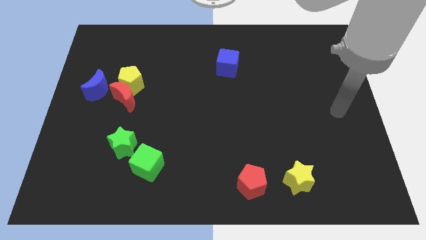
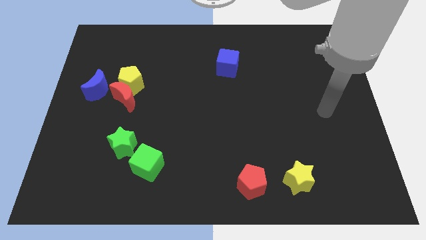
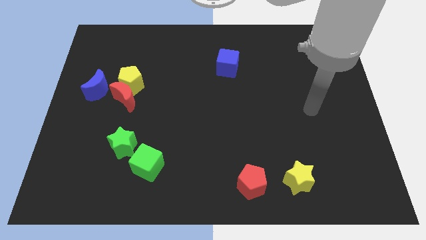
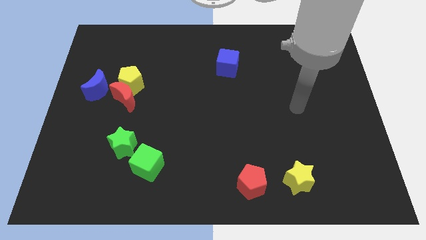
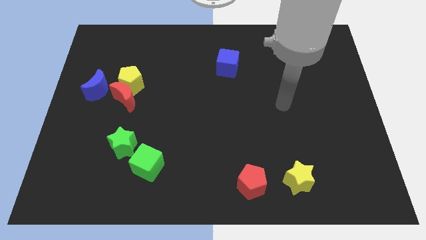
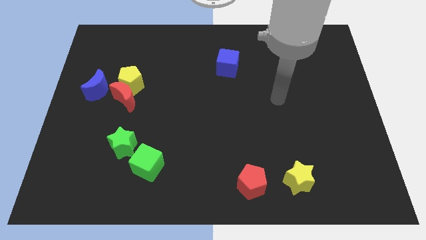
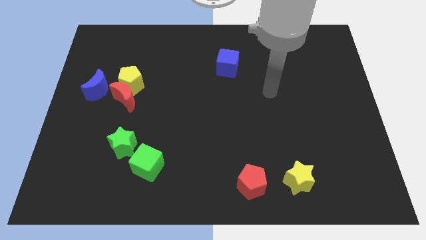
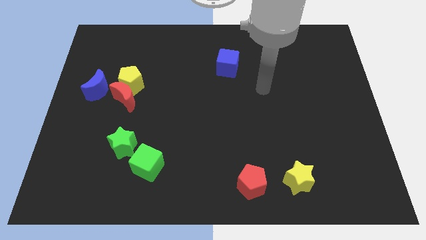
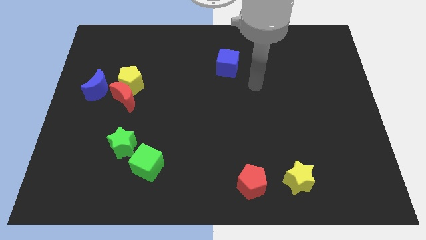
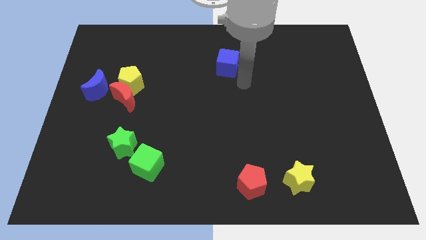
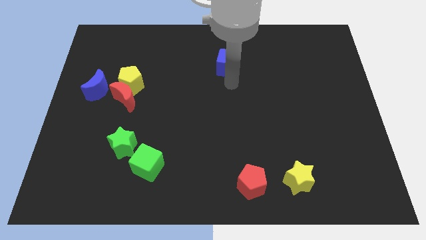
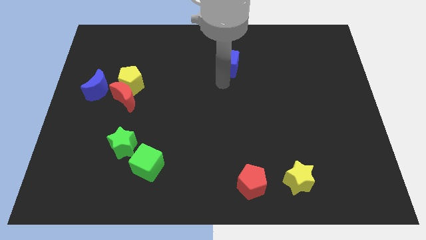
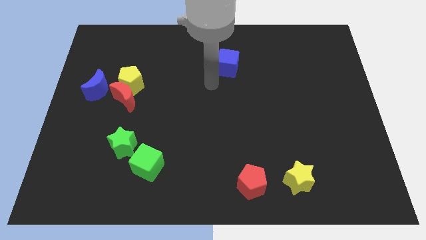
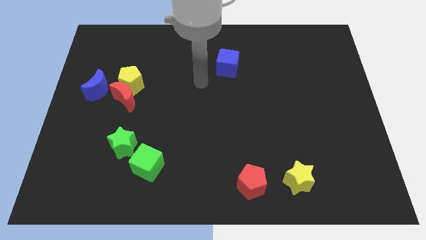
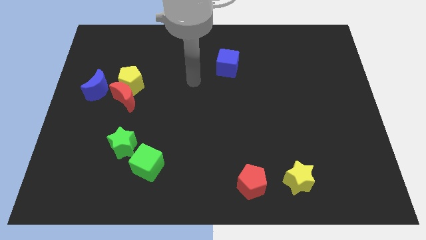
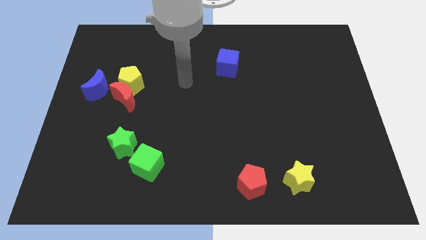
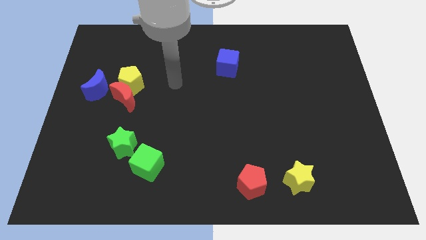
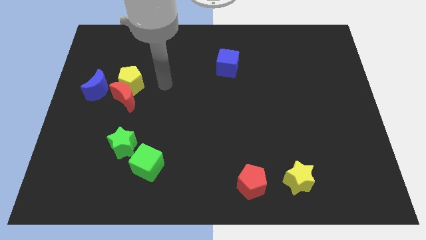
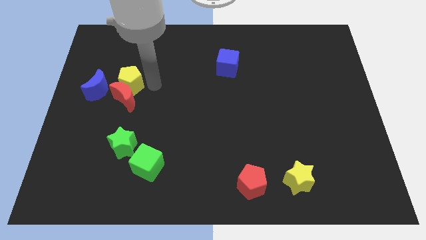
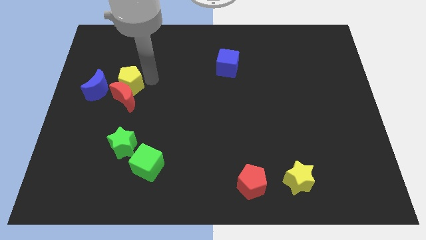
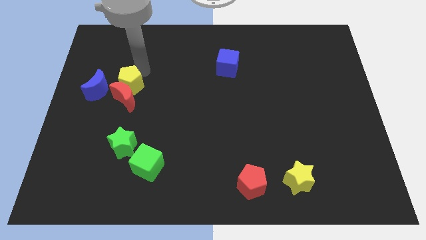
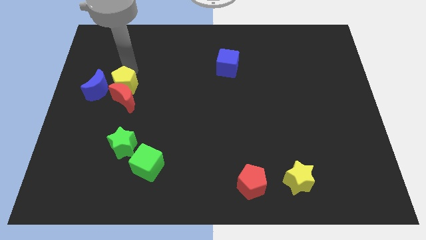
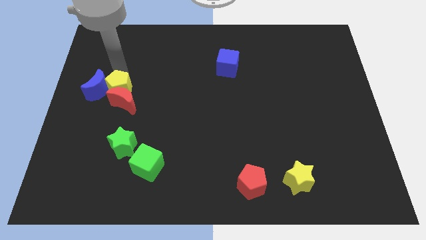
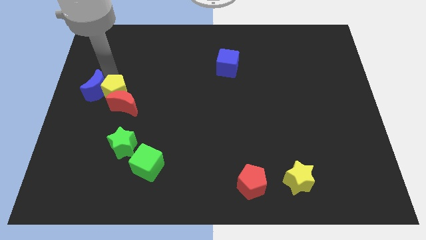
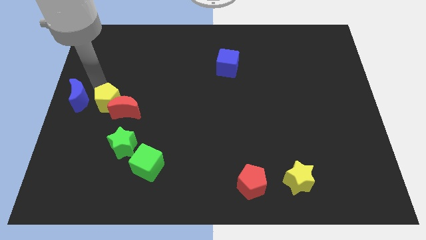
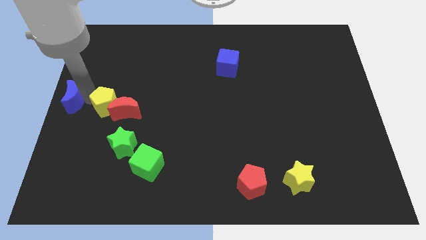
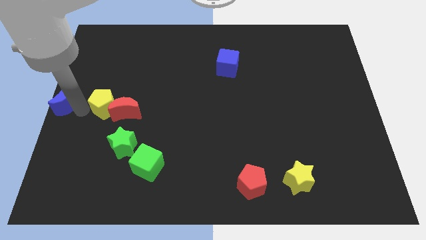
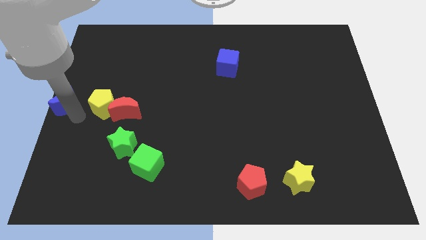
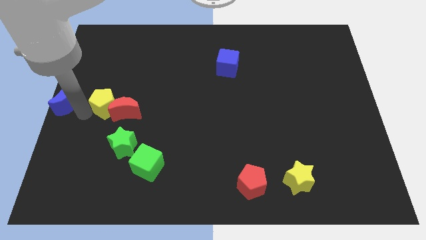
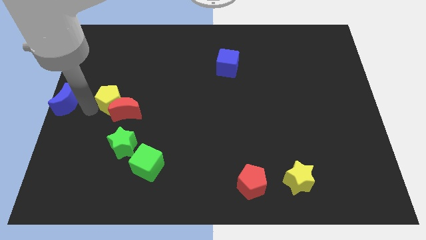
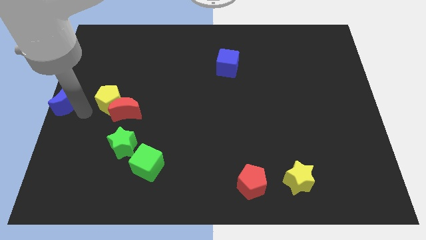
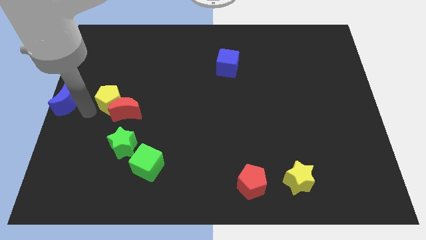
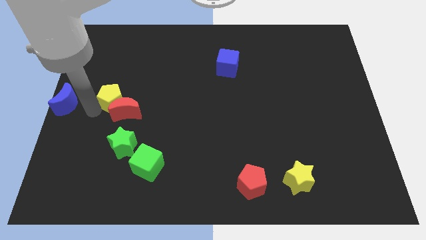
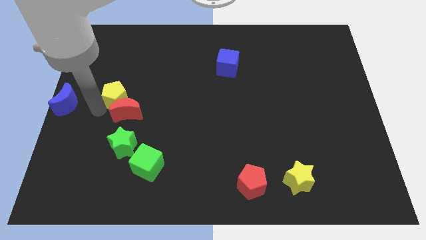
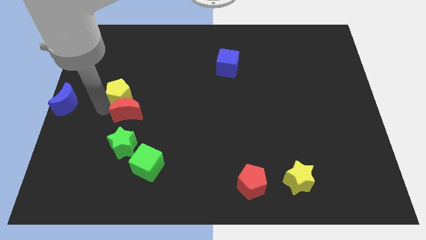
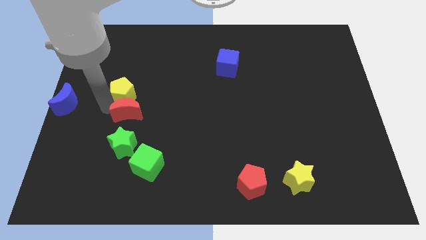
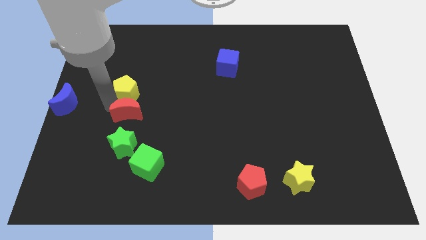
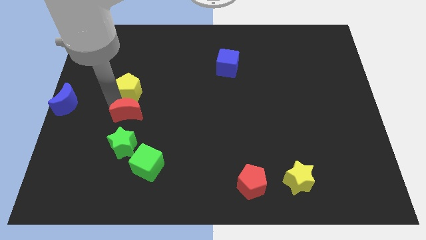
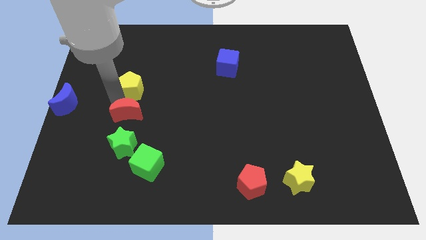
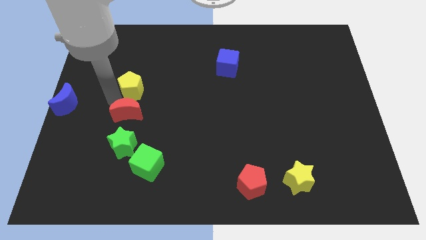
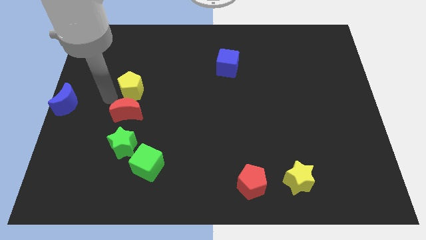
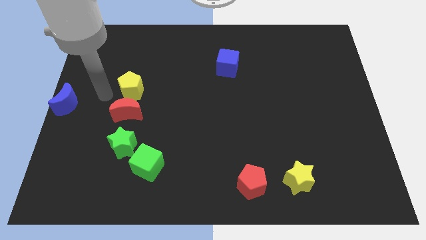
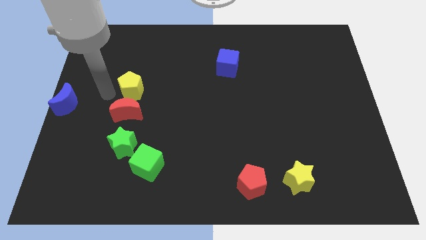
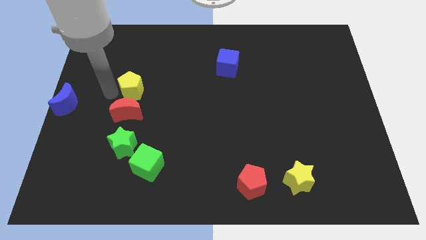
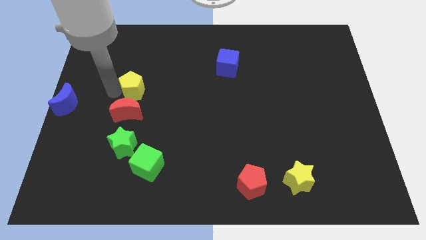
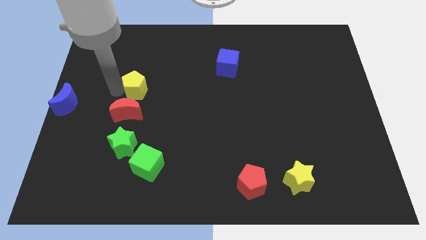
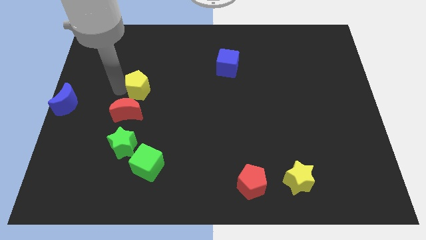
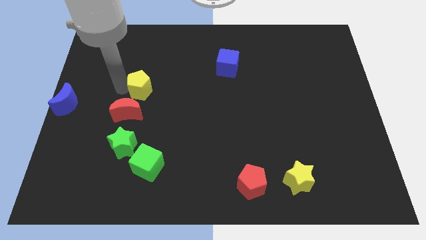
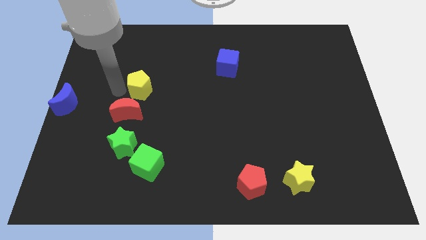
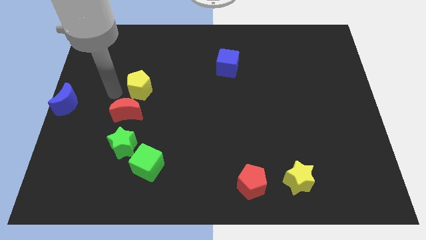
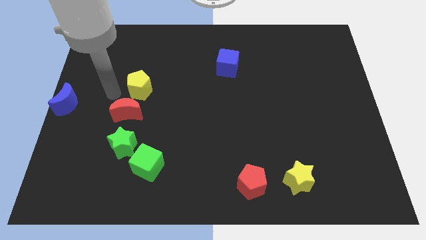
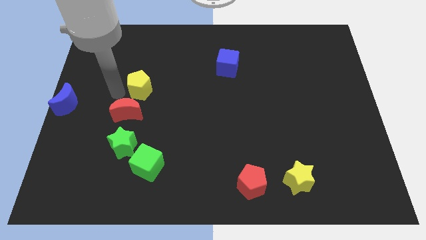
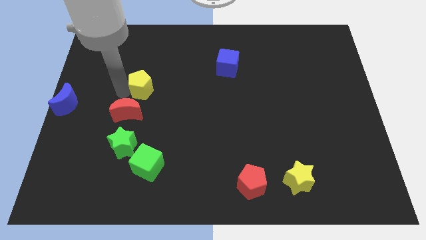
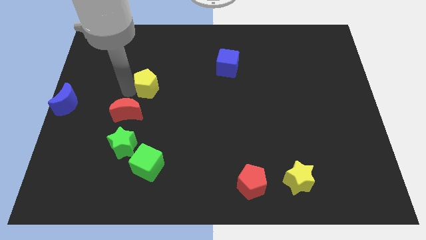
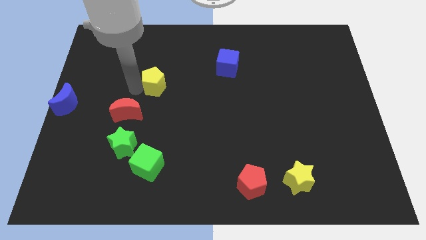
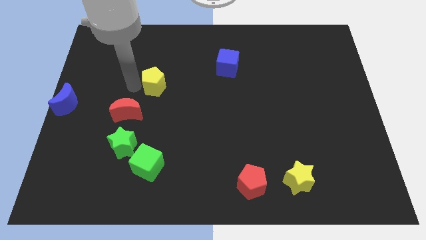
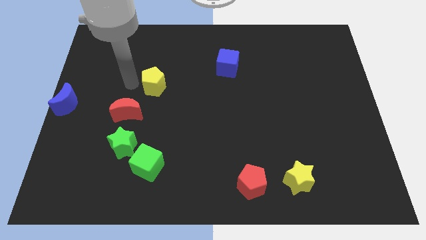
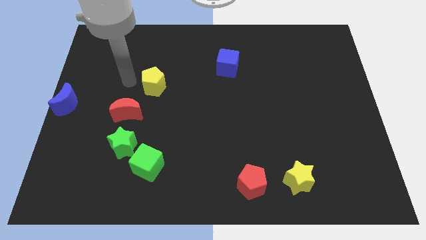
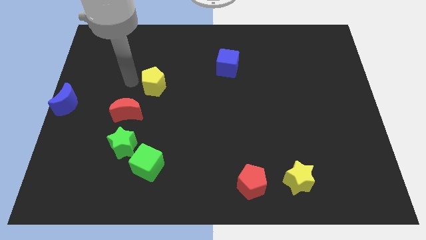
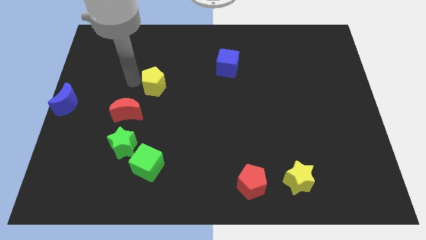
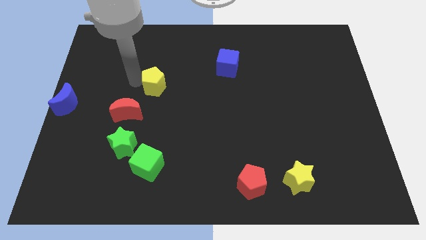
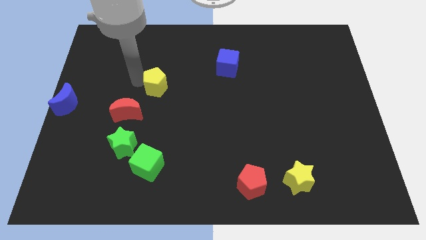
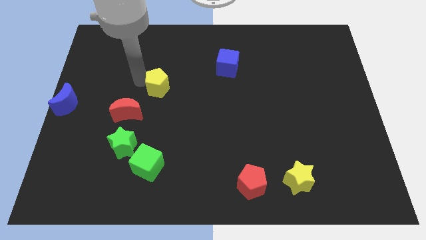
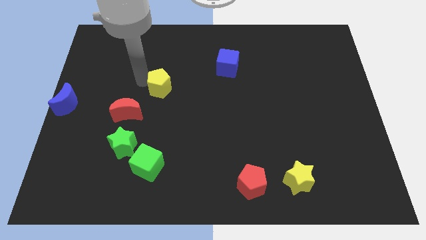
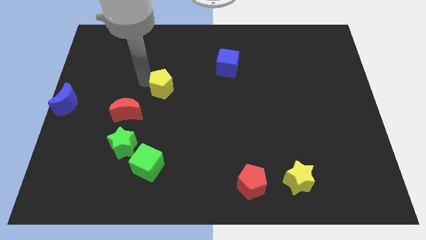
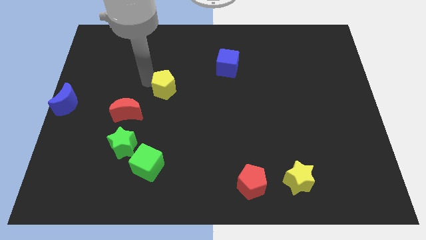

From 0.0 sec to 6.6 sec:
slide the yellow pentagon to the middle
